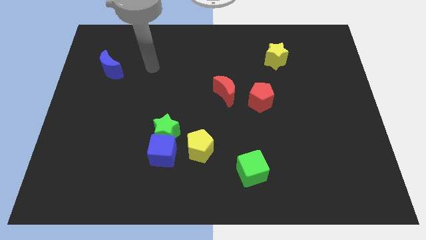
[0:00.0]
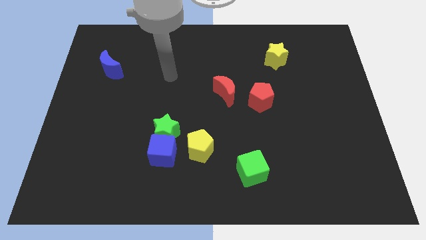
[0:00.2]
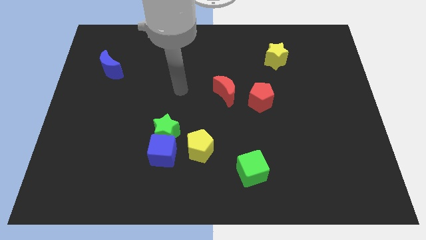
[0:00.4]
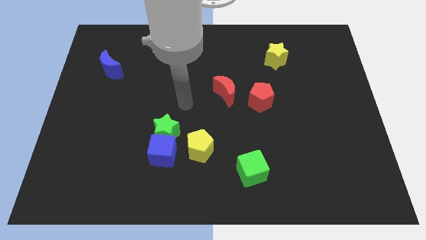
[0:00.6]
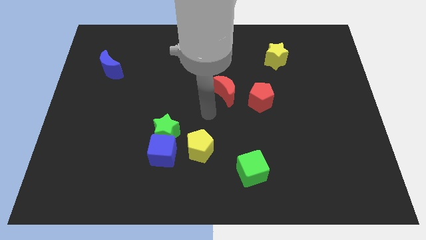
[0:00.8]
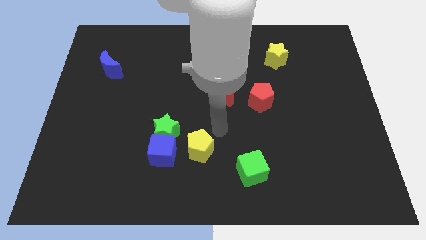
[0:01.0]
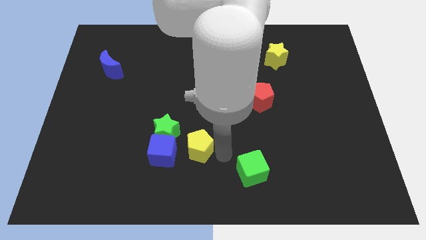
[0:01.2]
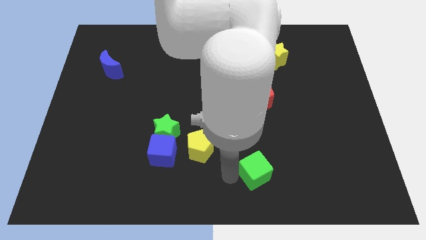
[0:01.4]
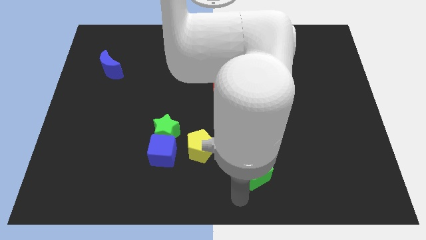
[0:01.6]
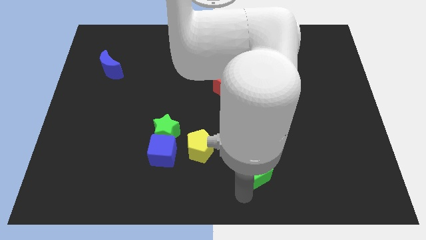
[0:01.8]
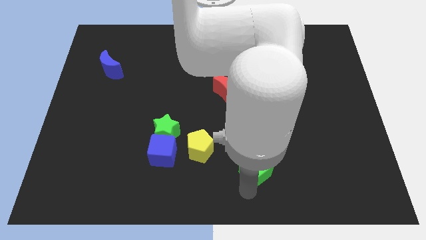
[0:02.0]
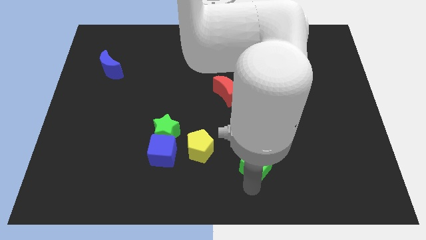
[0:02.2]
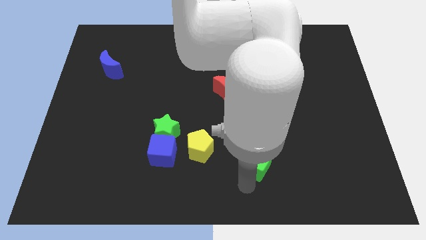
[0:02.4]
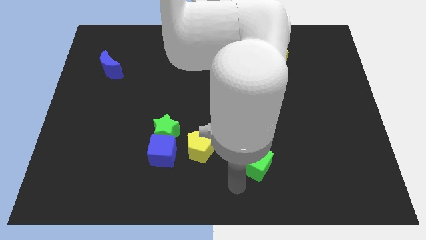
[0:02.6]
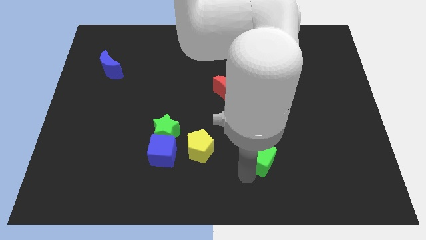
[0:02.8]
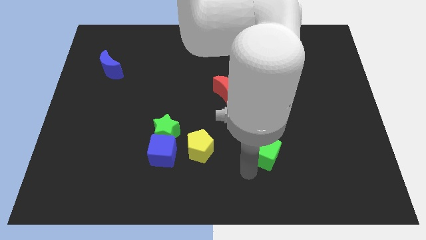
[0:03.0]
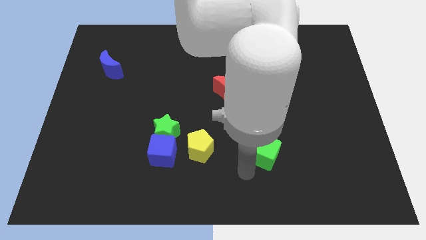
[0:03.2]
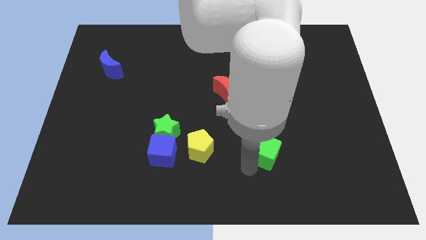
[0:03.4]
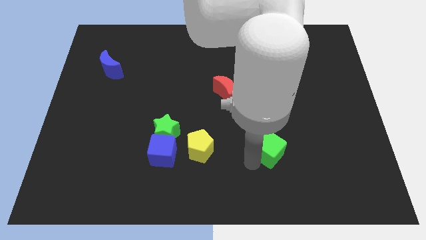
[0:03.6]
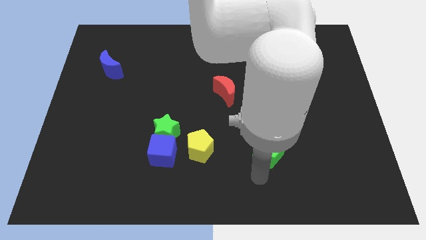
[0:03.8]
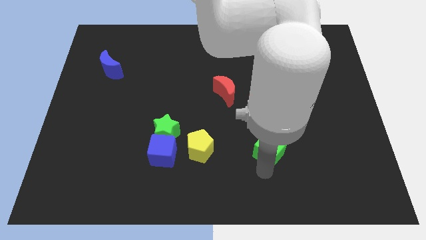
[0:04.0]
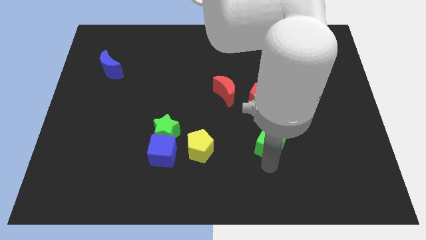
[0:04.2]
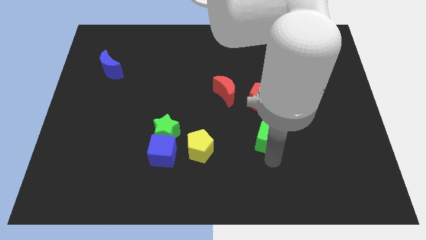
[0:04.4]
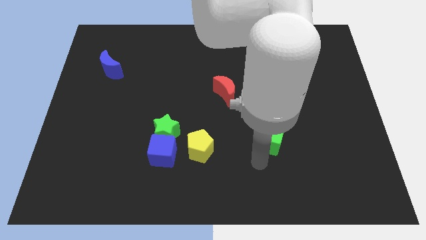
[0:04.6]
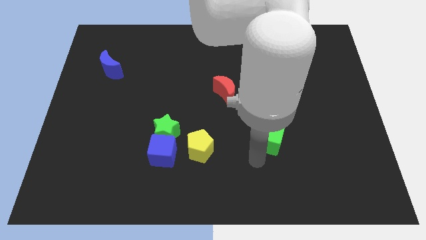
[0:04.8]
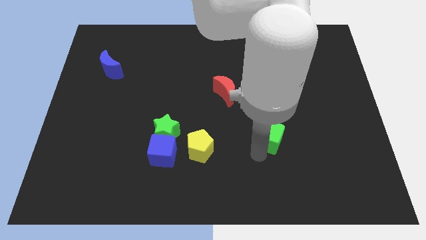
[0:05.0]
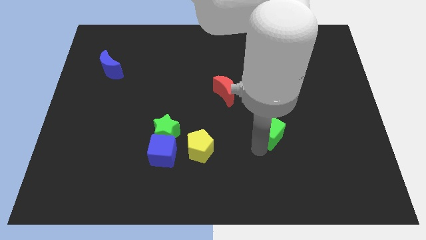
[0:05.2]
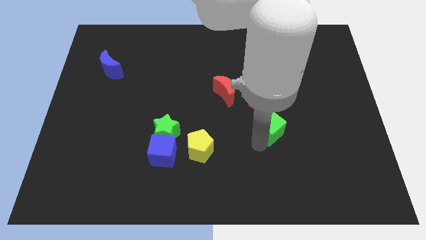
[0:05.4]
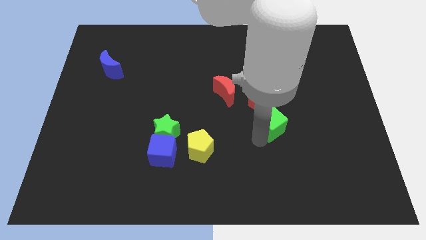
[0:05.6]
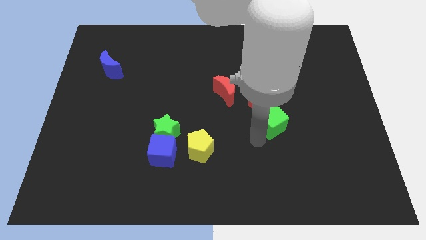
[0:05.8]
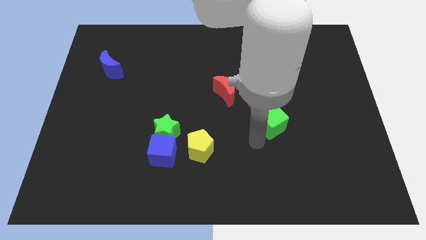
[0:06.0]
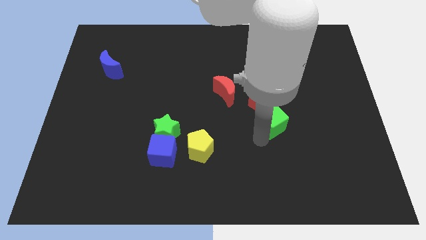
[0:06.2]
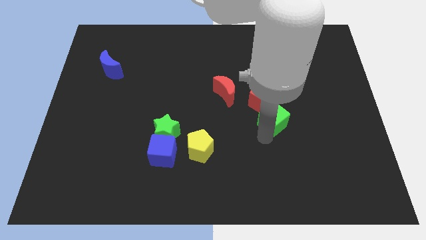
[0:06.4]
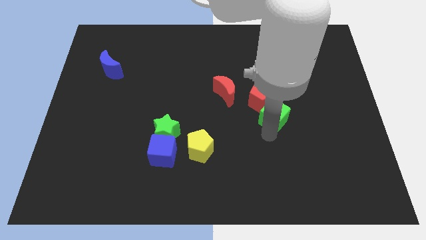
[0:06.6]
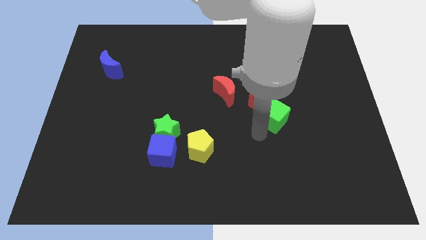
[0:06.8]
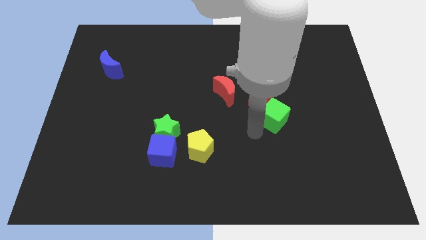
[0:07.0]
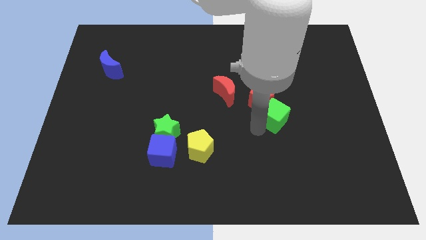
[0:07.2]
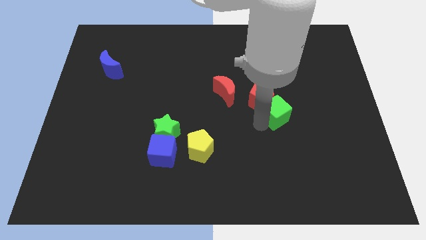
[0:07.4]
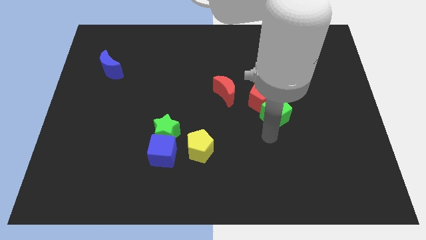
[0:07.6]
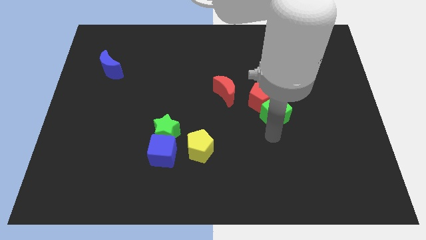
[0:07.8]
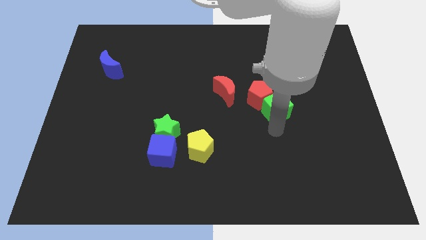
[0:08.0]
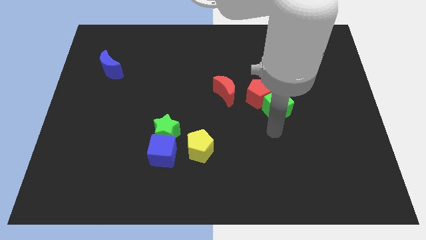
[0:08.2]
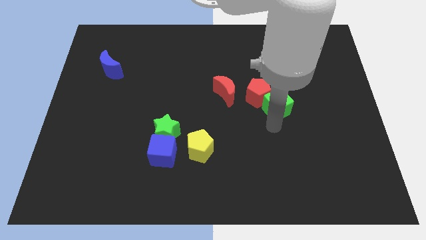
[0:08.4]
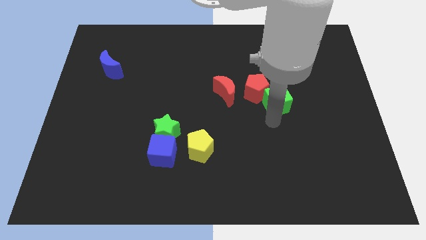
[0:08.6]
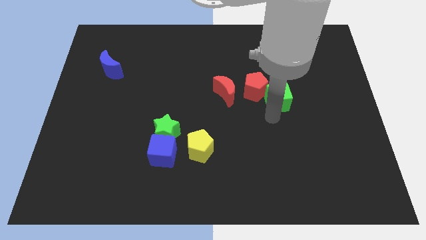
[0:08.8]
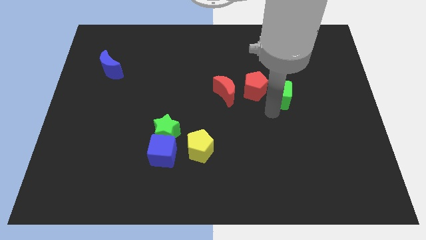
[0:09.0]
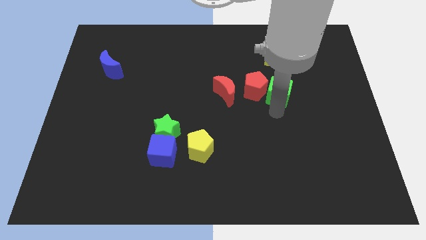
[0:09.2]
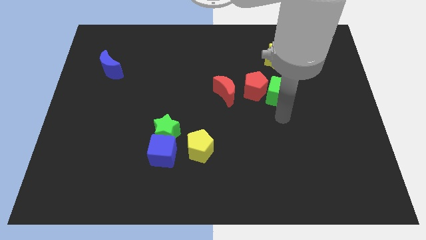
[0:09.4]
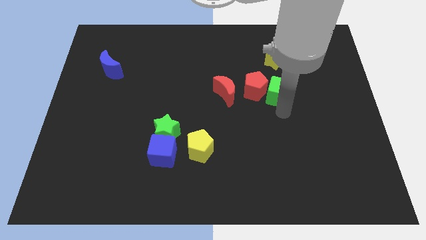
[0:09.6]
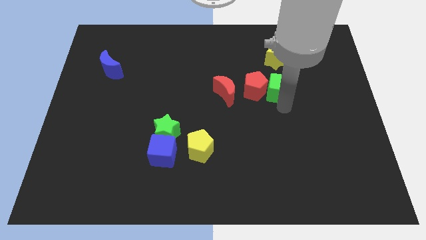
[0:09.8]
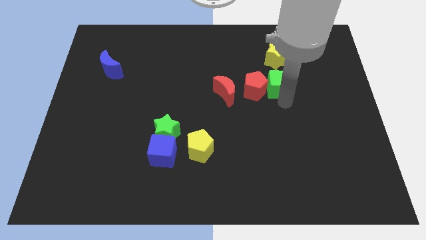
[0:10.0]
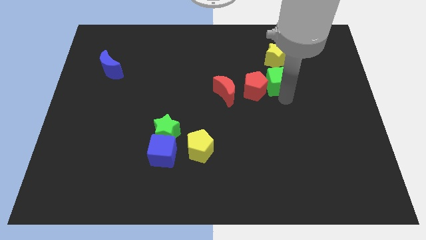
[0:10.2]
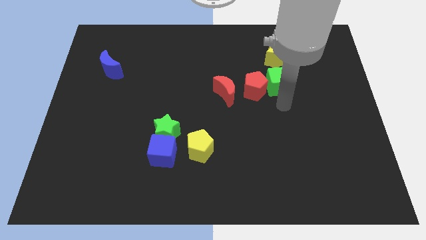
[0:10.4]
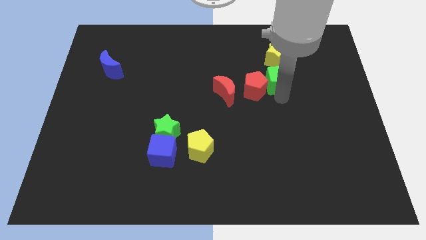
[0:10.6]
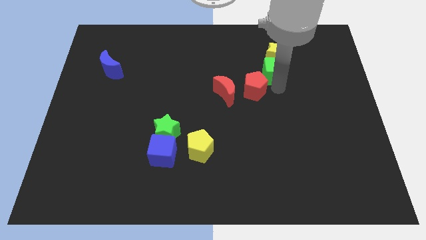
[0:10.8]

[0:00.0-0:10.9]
move the green cube next to the yellow star

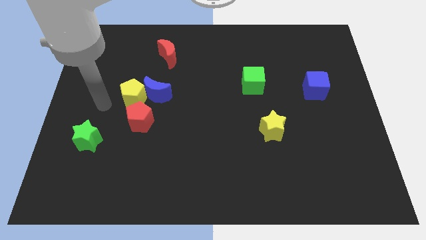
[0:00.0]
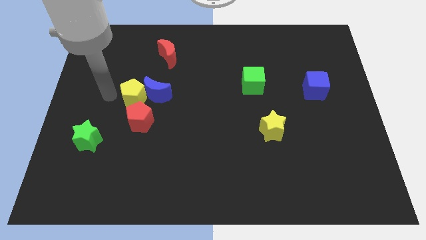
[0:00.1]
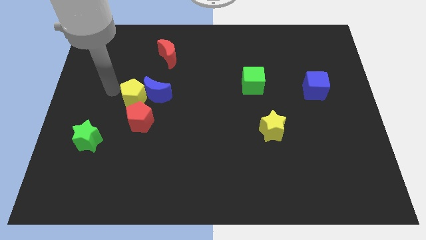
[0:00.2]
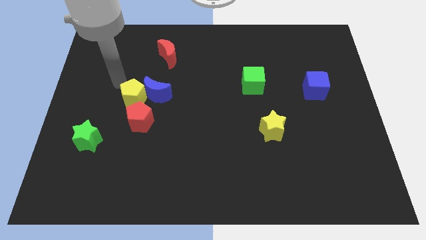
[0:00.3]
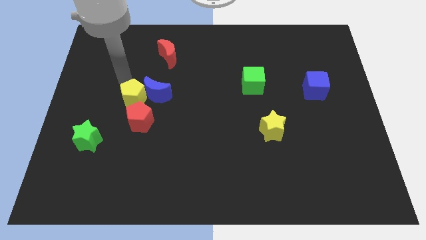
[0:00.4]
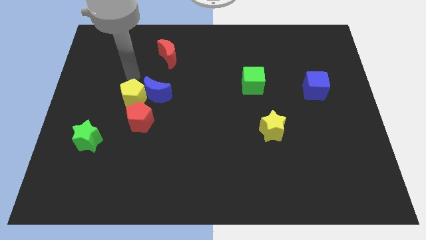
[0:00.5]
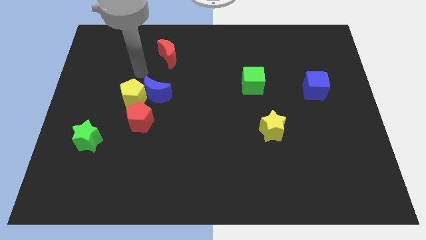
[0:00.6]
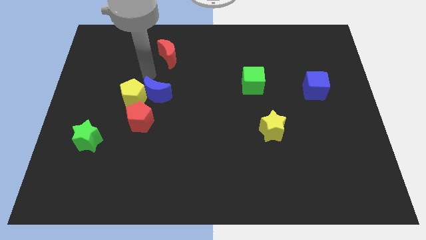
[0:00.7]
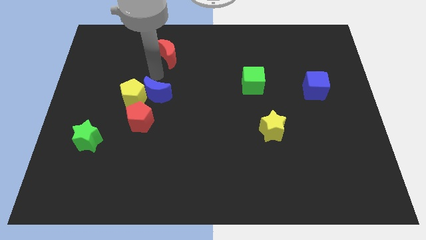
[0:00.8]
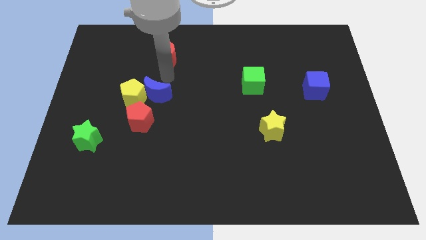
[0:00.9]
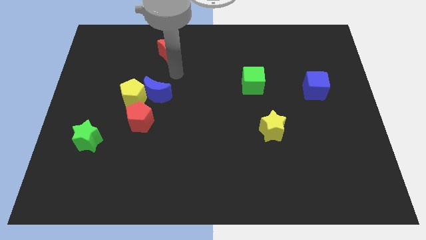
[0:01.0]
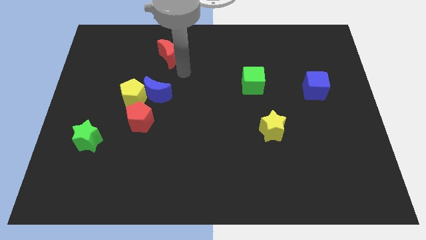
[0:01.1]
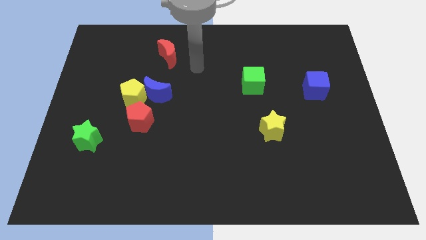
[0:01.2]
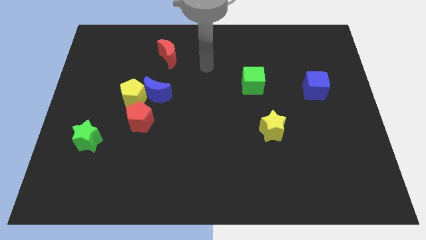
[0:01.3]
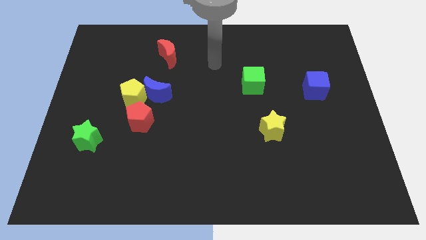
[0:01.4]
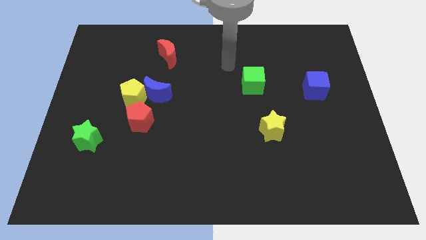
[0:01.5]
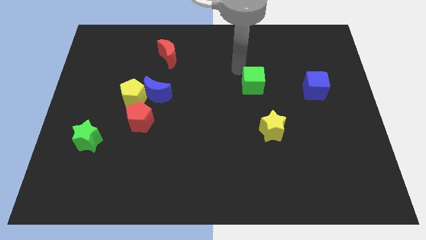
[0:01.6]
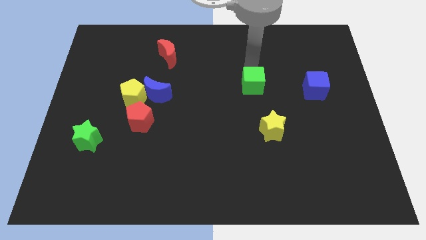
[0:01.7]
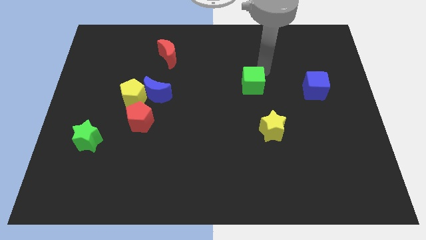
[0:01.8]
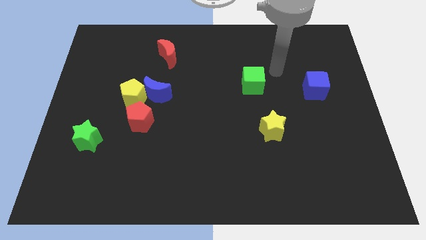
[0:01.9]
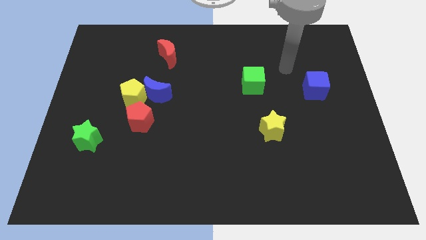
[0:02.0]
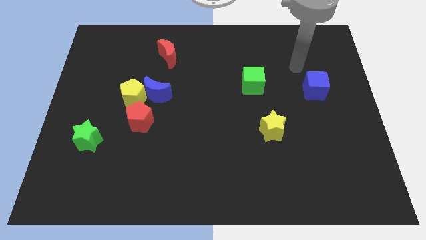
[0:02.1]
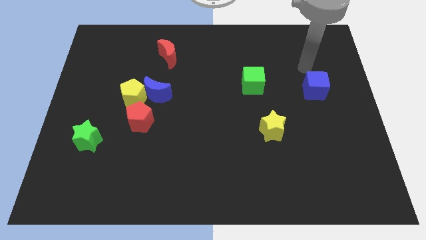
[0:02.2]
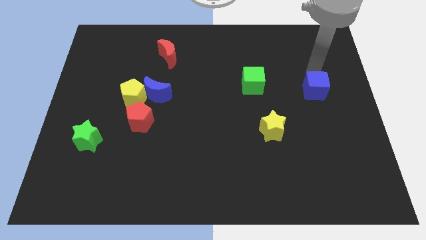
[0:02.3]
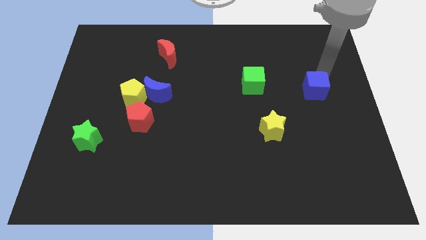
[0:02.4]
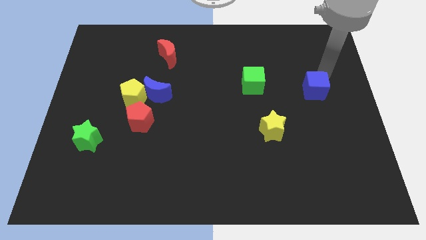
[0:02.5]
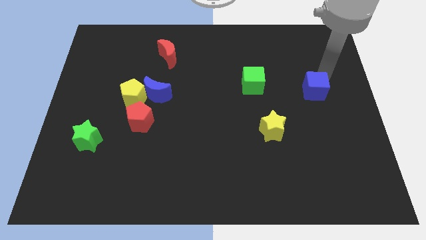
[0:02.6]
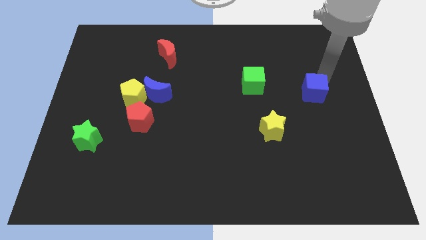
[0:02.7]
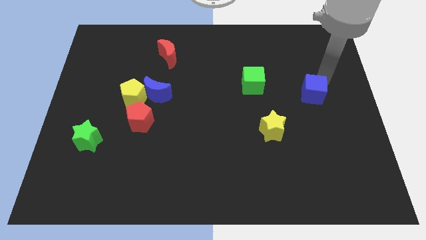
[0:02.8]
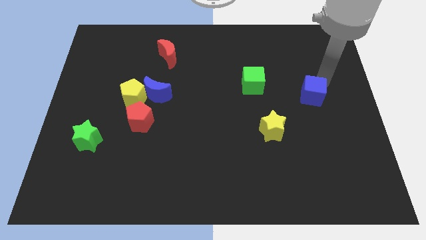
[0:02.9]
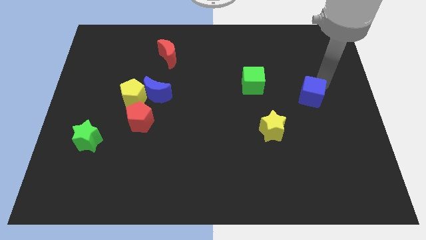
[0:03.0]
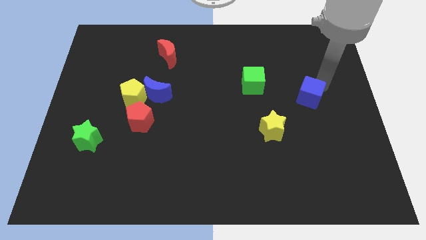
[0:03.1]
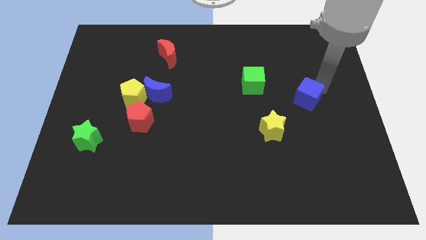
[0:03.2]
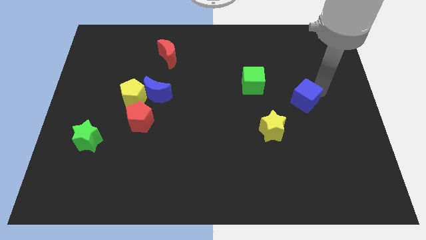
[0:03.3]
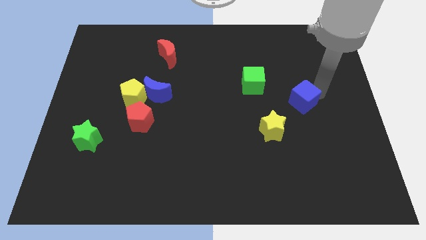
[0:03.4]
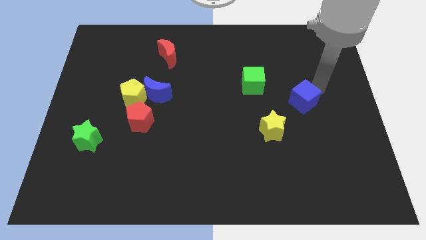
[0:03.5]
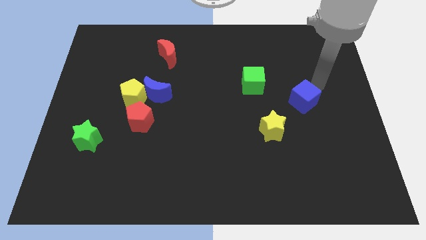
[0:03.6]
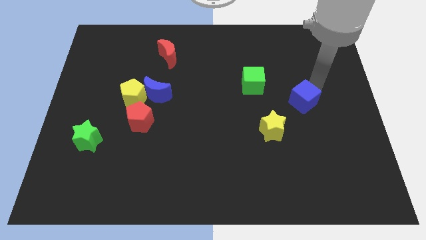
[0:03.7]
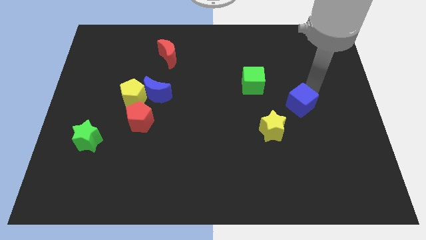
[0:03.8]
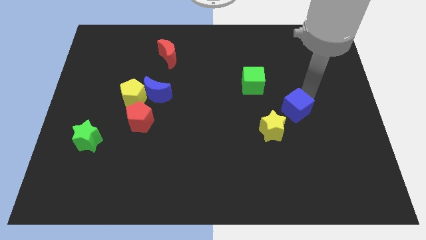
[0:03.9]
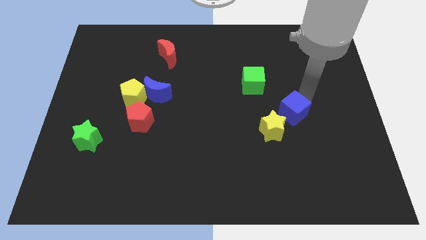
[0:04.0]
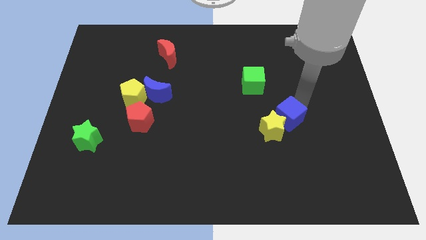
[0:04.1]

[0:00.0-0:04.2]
move the blue cube close to the yellow star
